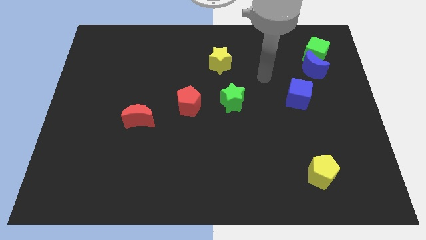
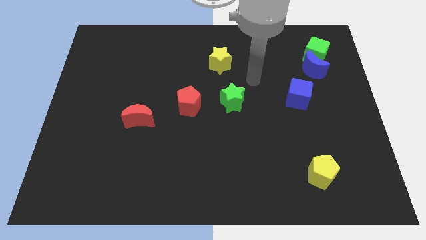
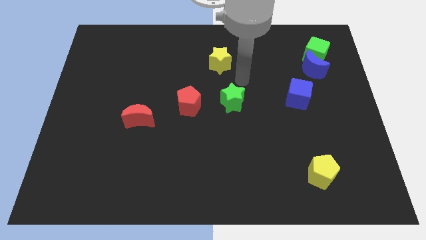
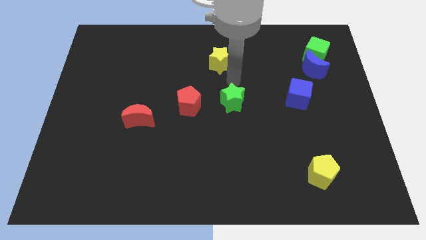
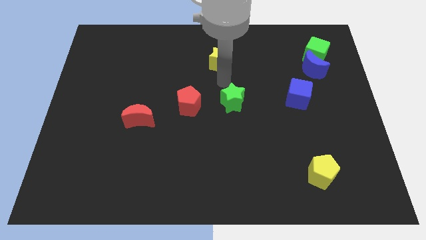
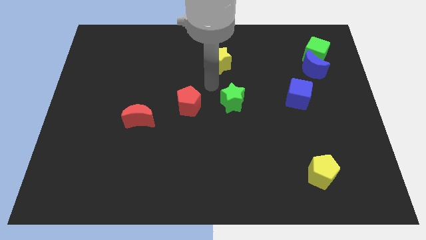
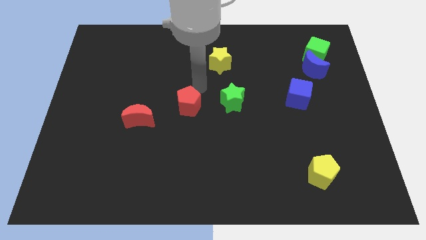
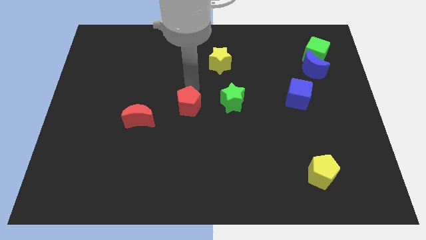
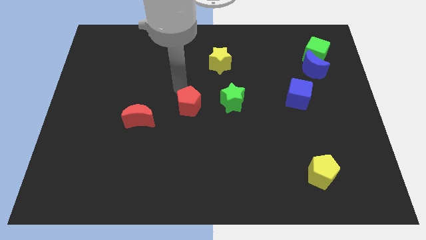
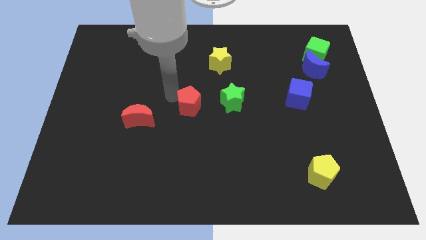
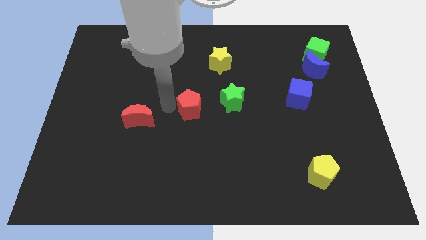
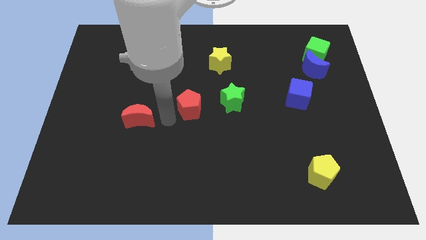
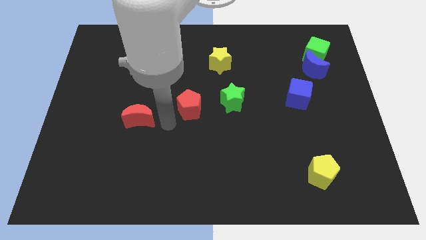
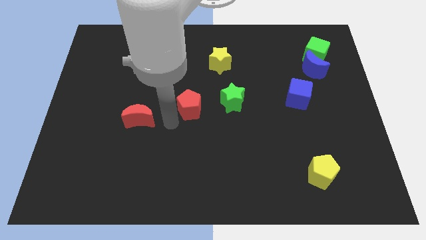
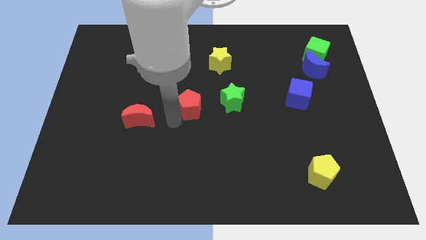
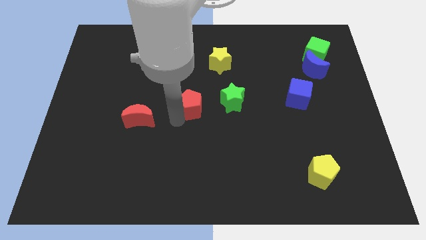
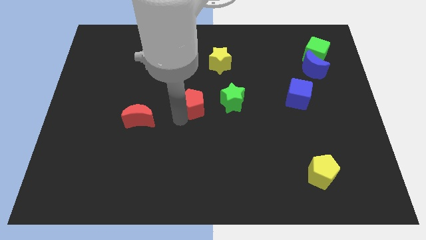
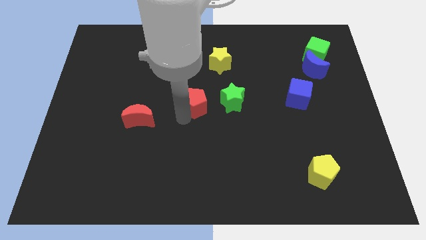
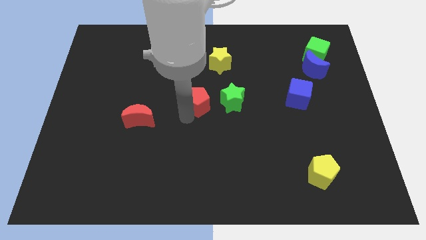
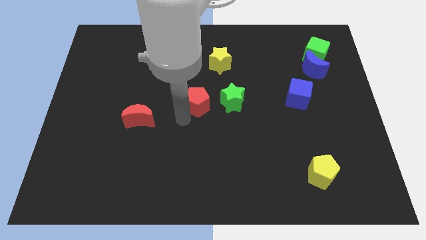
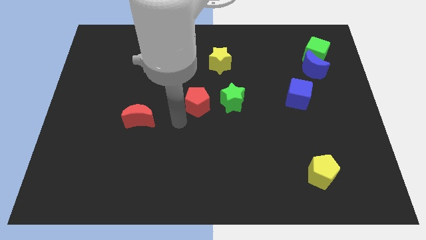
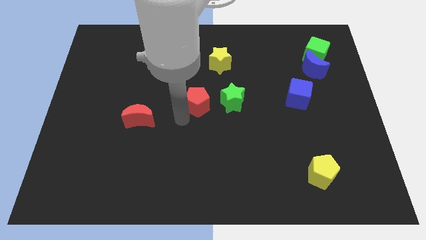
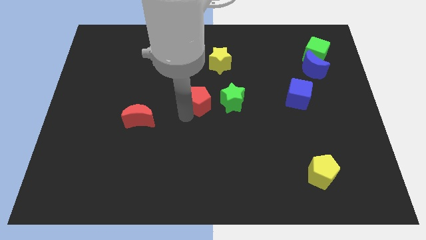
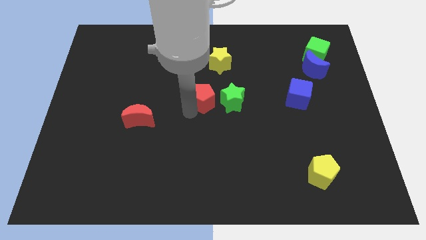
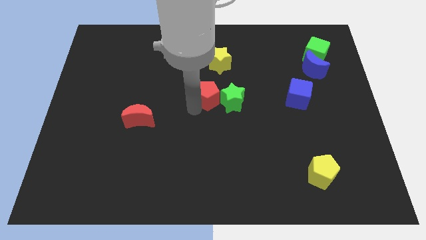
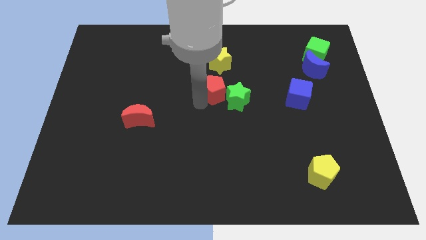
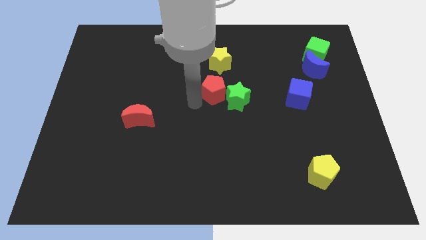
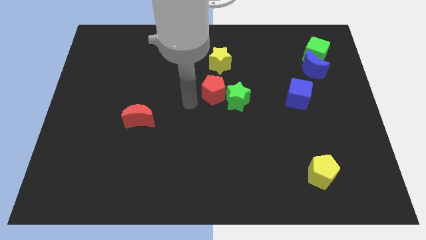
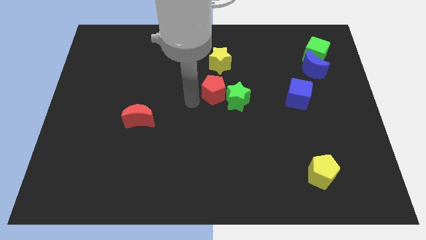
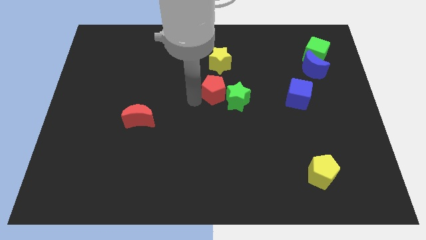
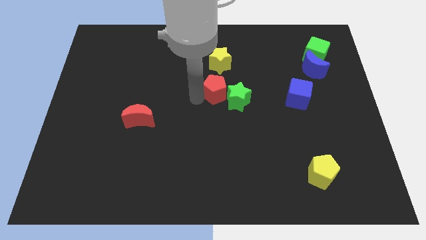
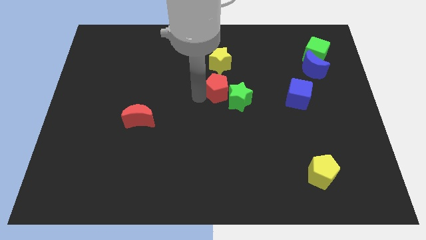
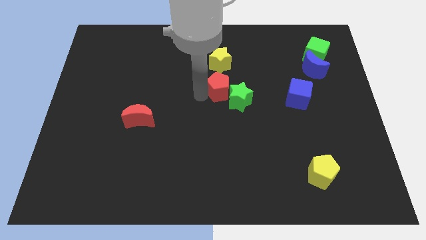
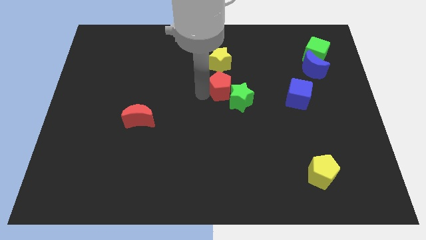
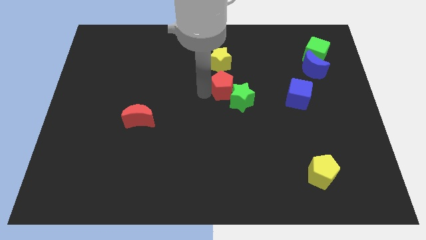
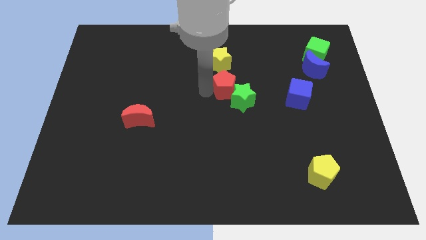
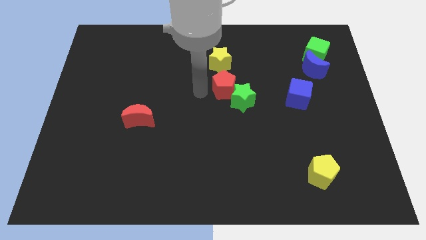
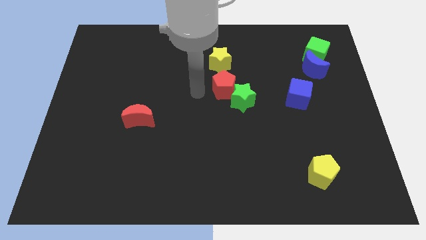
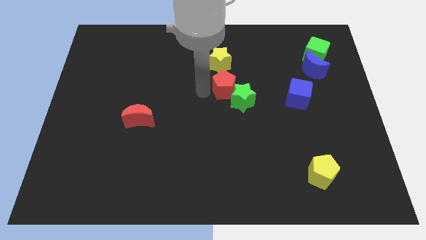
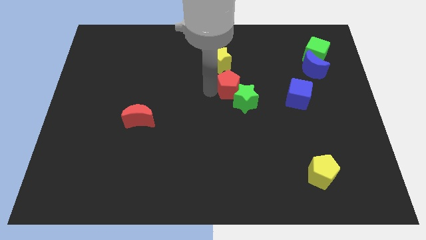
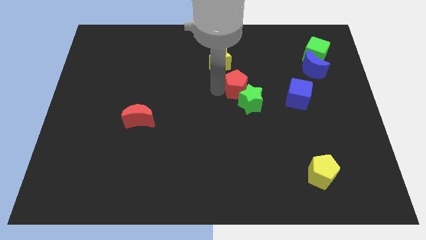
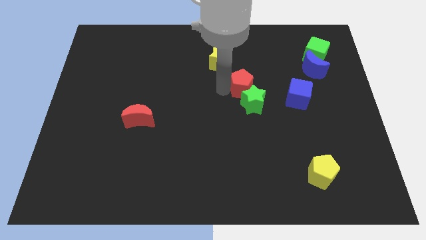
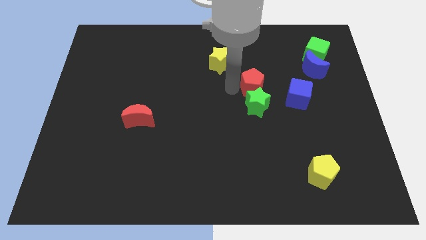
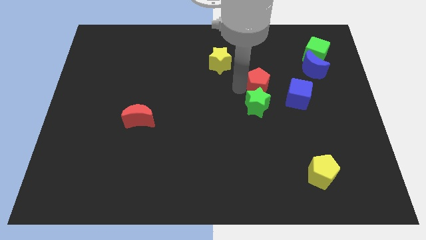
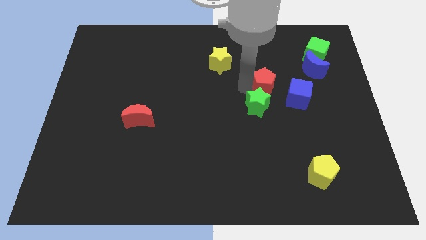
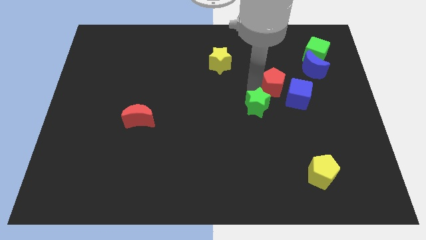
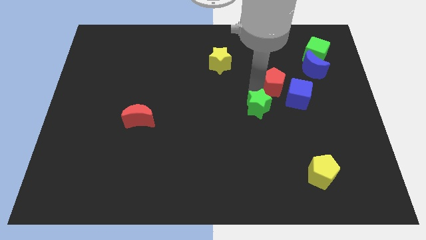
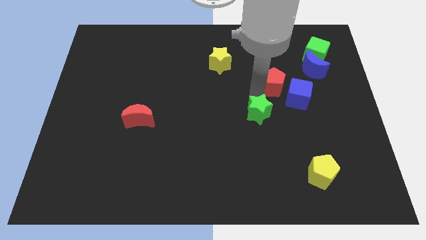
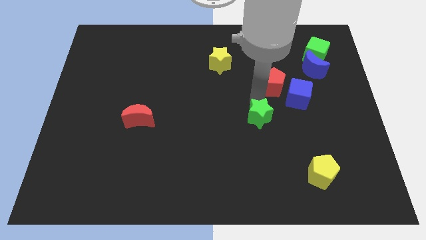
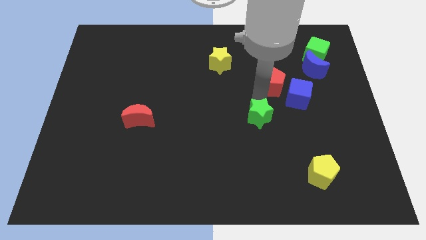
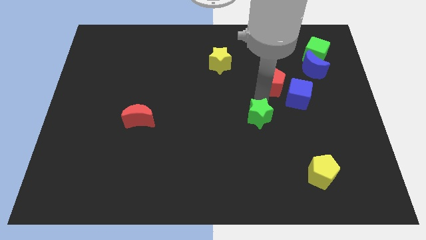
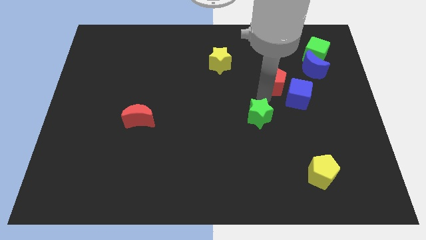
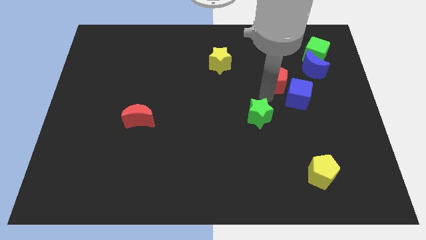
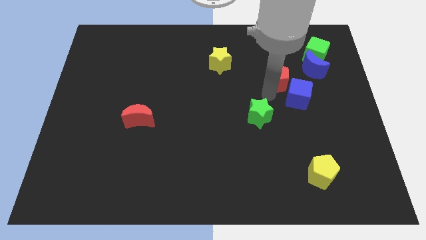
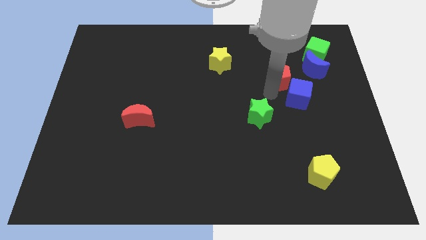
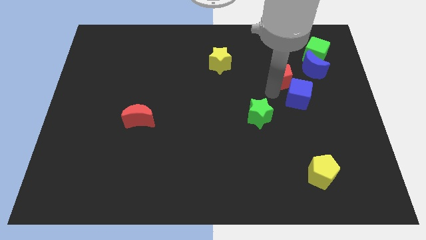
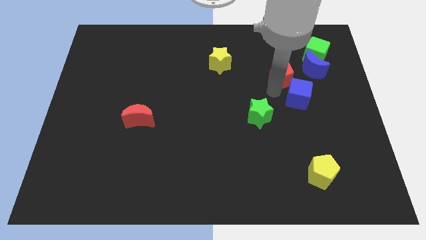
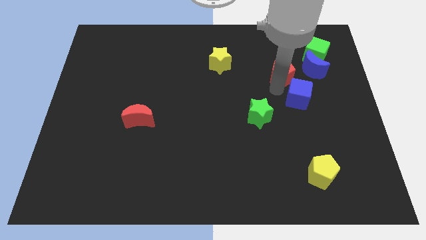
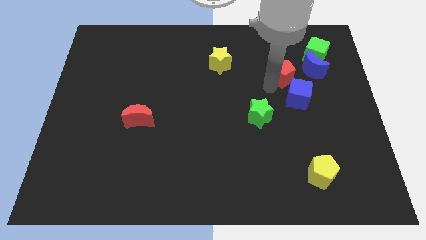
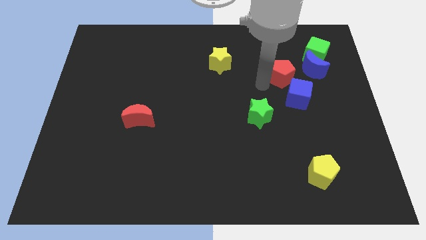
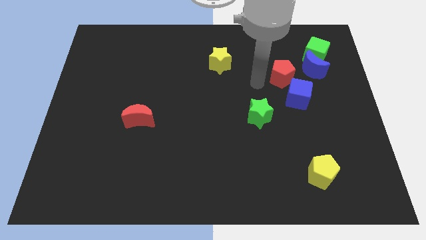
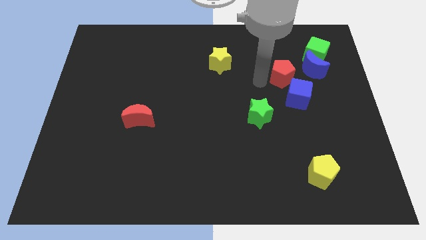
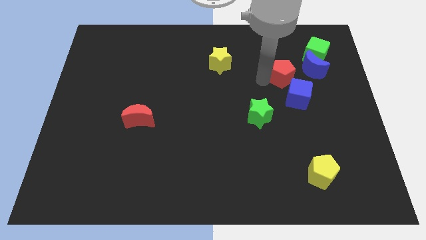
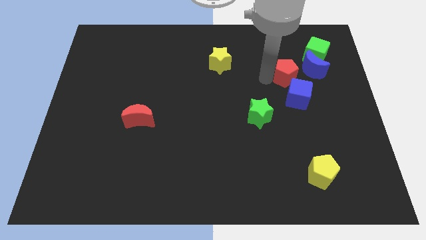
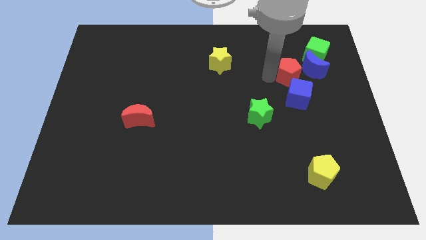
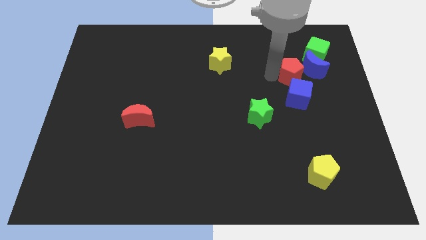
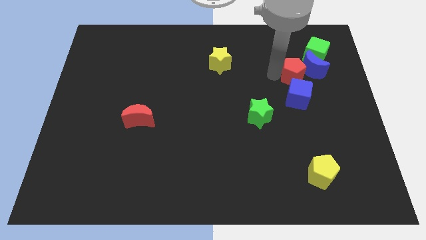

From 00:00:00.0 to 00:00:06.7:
push the red pentagon close to the blue moon

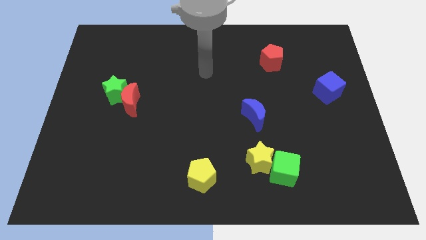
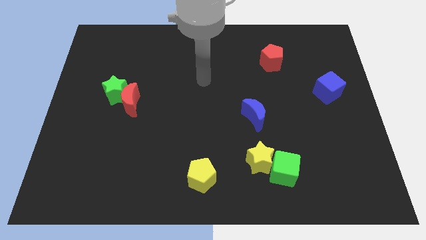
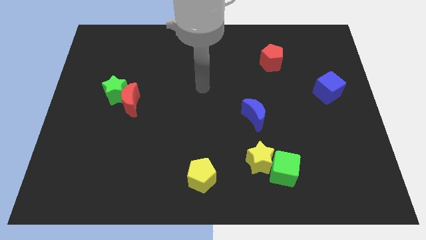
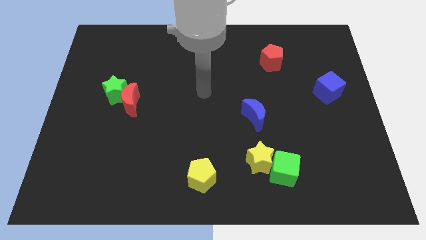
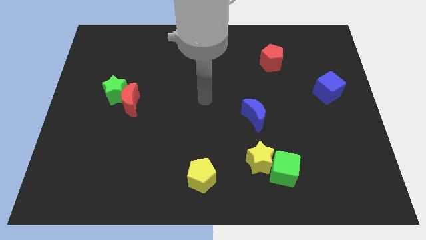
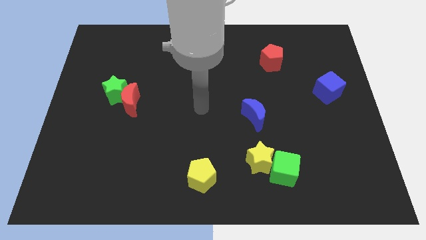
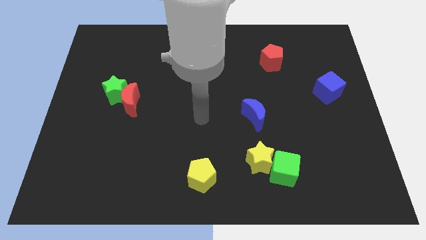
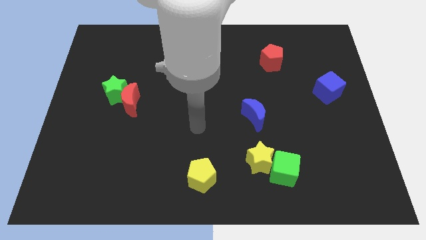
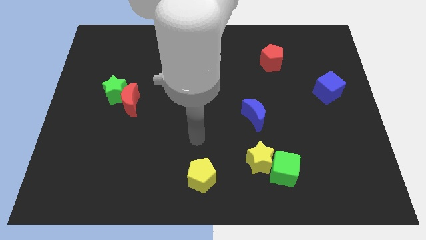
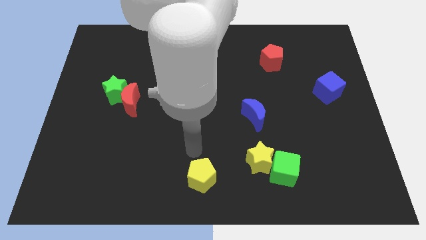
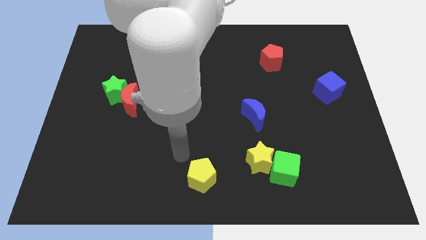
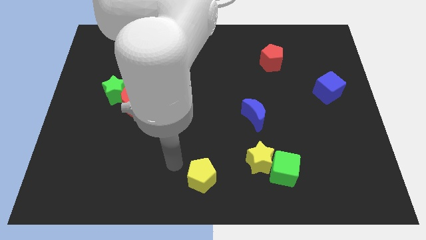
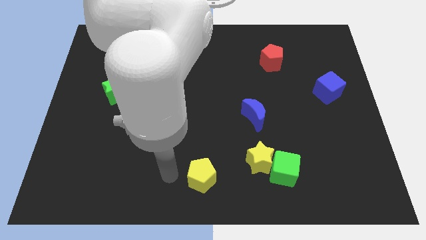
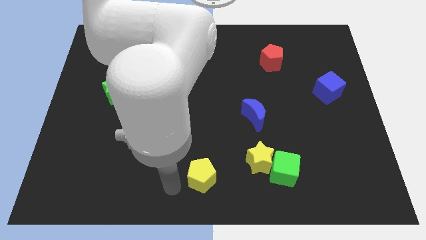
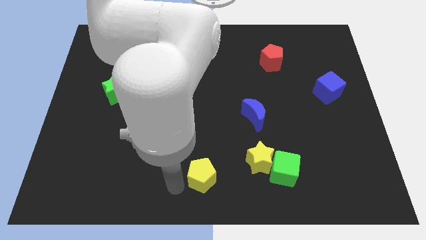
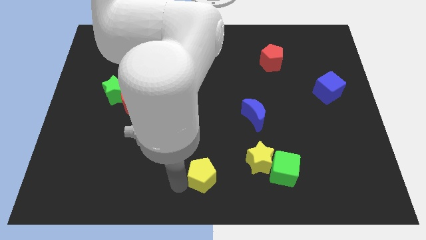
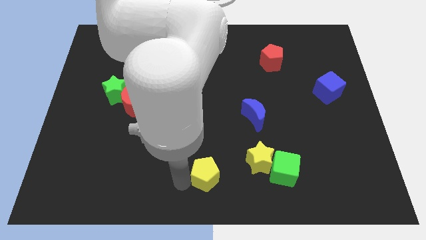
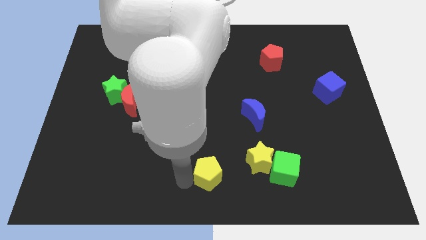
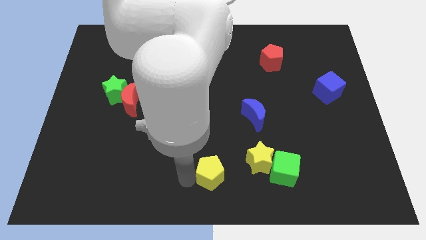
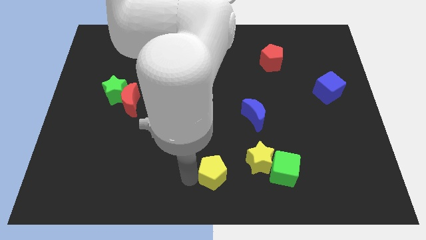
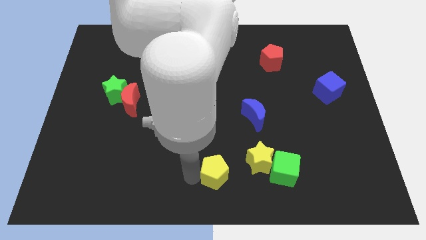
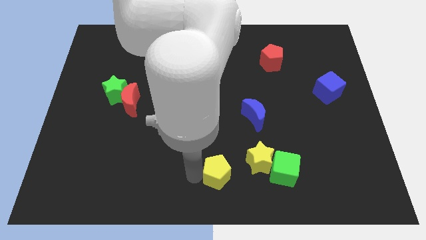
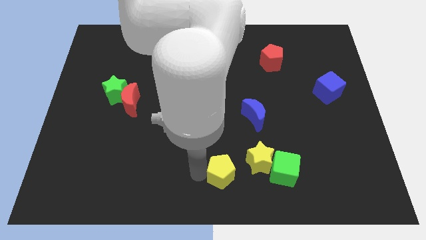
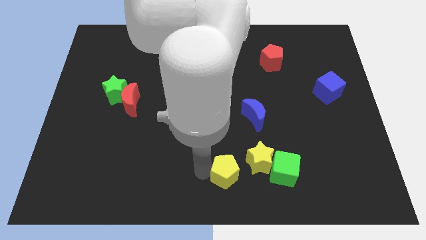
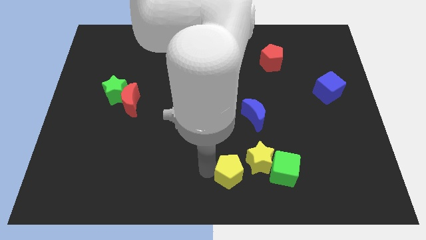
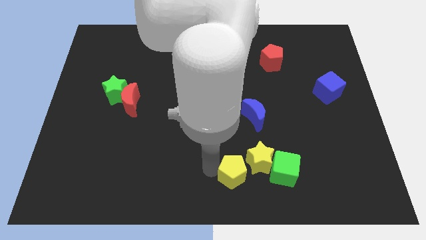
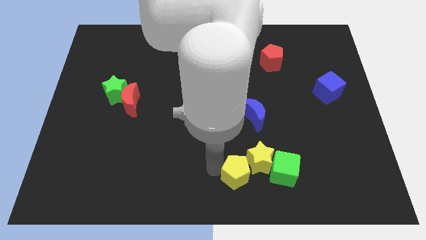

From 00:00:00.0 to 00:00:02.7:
move the yellow pentagon to the yellow star
